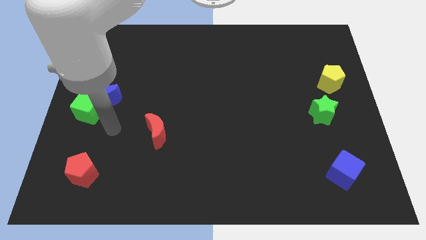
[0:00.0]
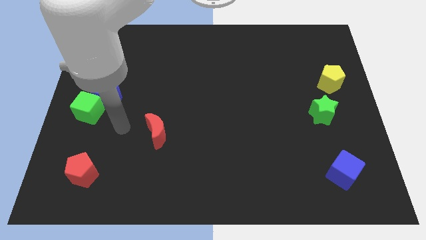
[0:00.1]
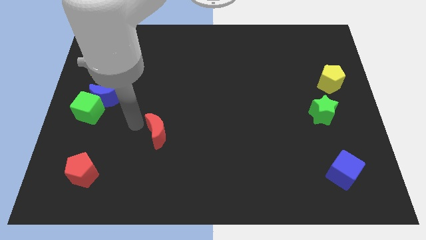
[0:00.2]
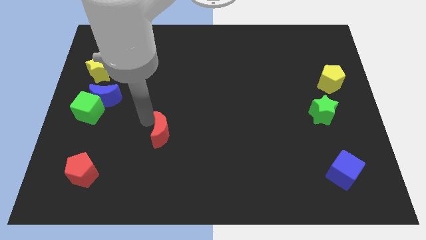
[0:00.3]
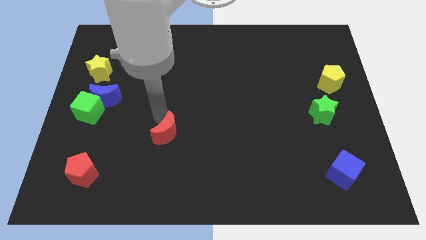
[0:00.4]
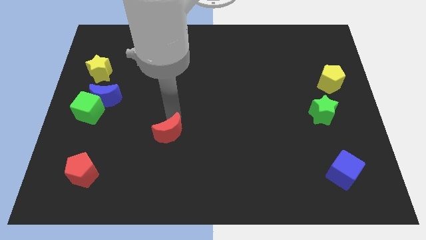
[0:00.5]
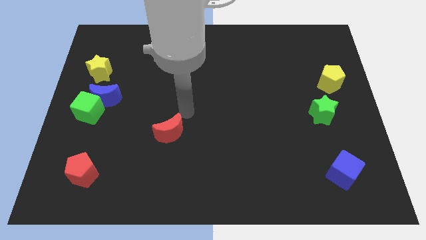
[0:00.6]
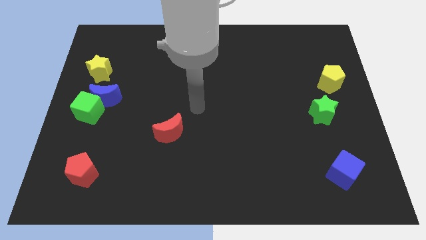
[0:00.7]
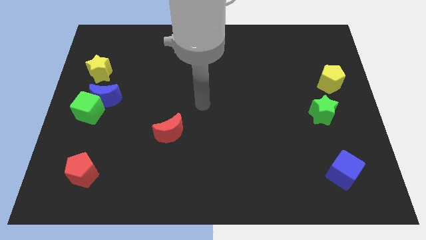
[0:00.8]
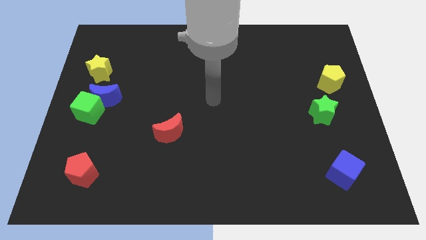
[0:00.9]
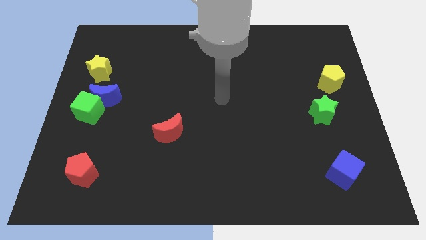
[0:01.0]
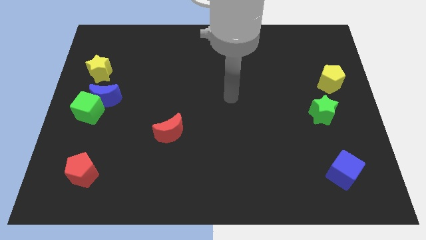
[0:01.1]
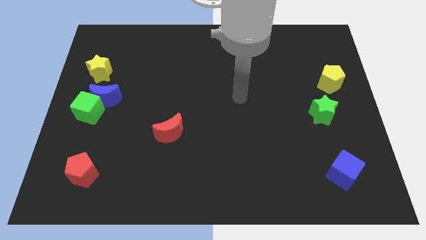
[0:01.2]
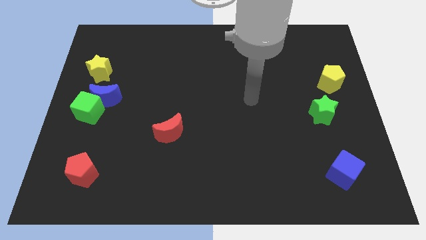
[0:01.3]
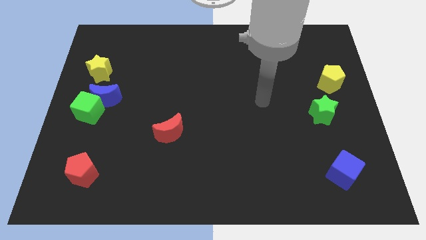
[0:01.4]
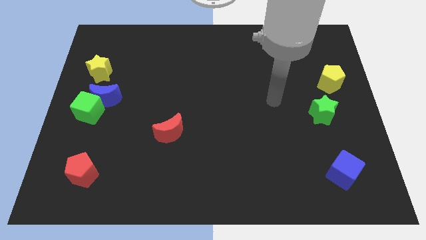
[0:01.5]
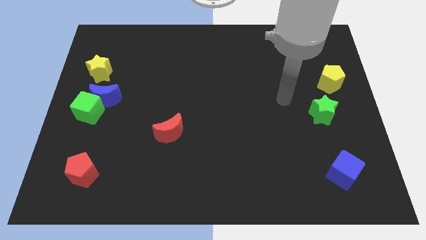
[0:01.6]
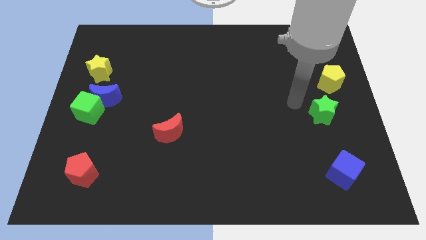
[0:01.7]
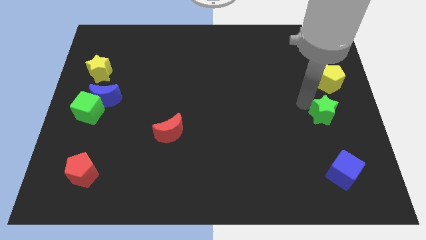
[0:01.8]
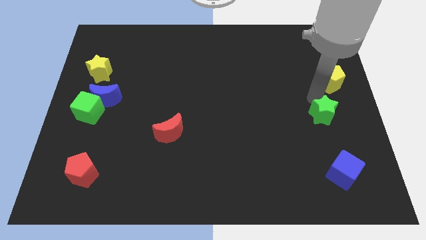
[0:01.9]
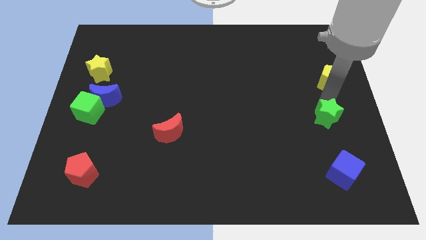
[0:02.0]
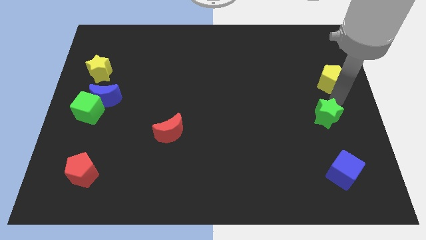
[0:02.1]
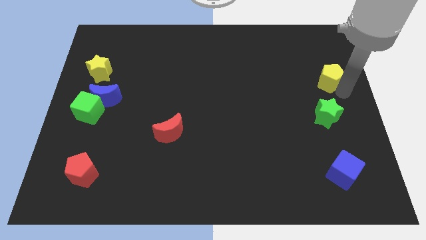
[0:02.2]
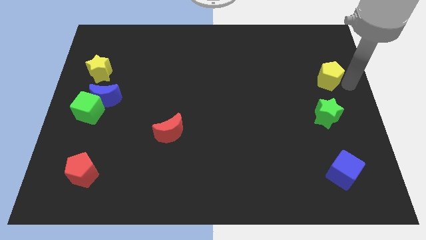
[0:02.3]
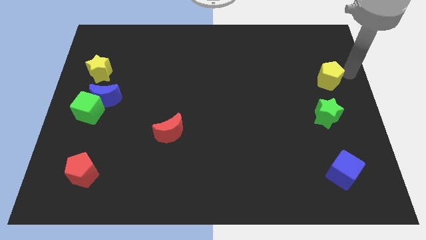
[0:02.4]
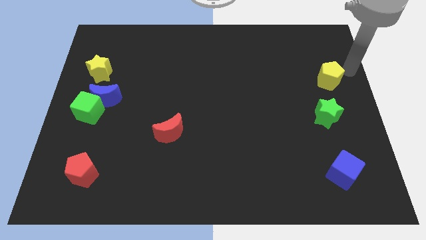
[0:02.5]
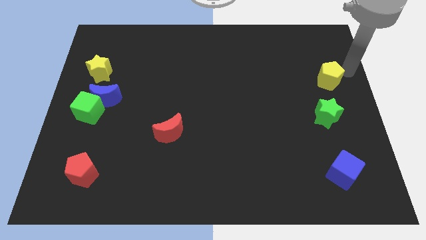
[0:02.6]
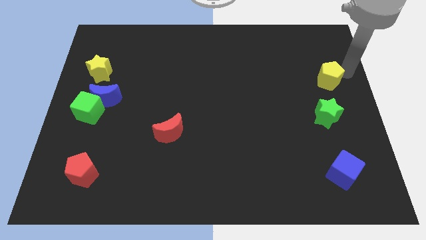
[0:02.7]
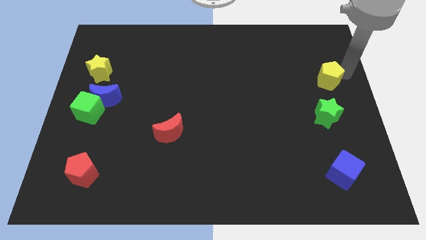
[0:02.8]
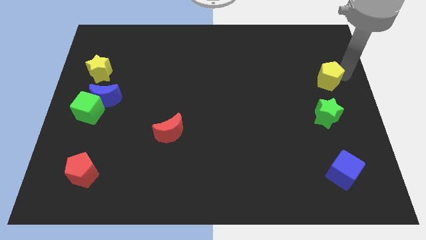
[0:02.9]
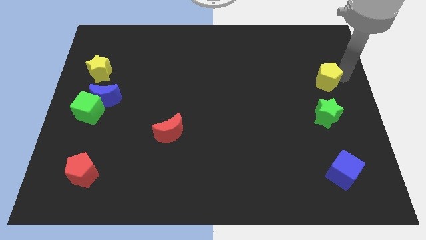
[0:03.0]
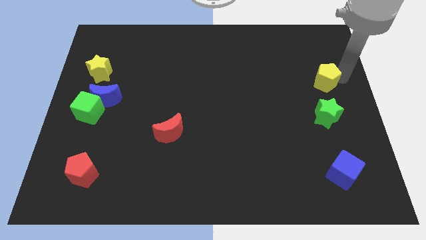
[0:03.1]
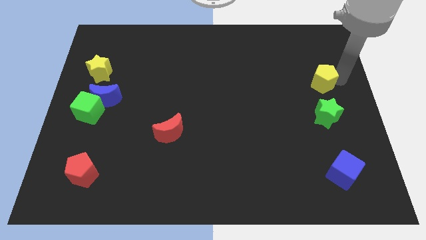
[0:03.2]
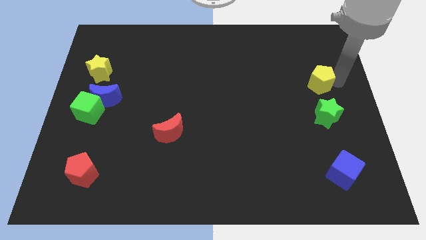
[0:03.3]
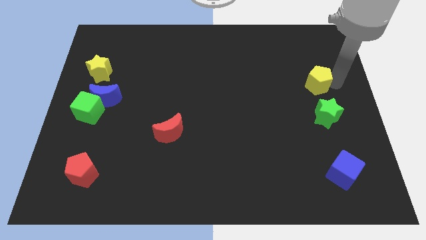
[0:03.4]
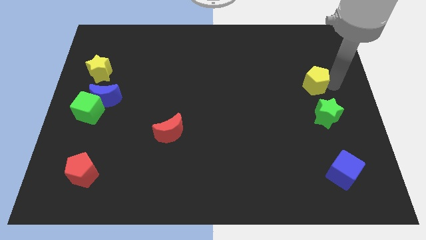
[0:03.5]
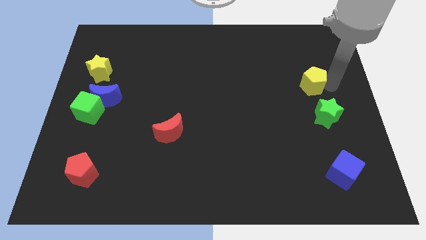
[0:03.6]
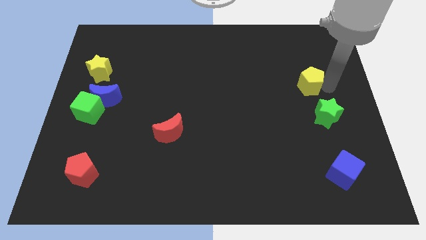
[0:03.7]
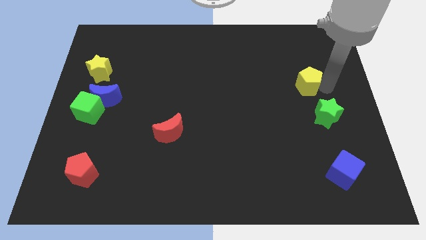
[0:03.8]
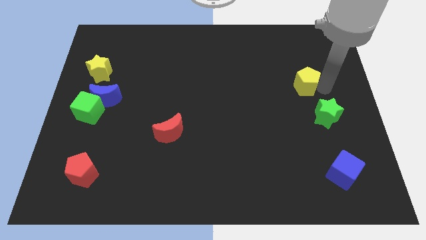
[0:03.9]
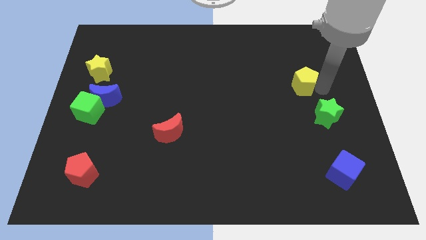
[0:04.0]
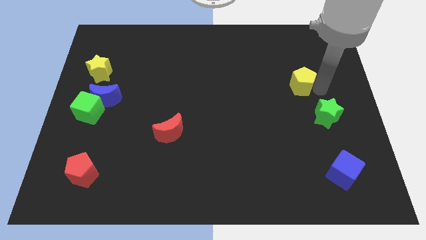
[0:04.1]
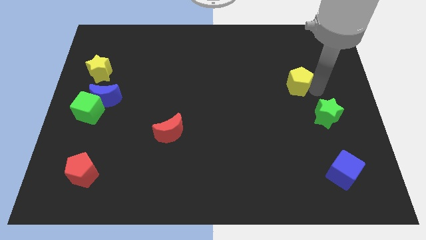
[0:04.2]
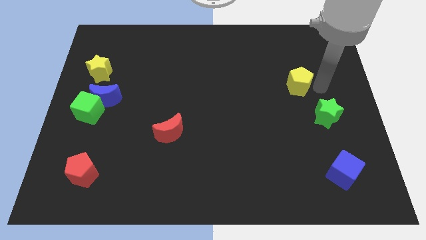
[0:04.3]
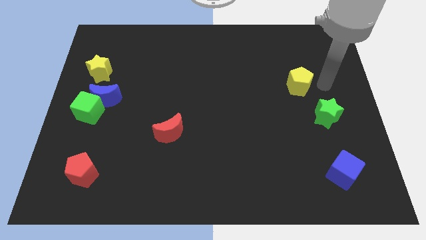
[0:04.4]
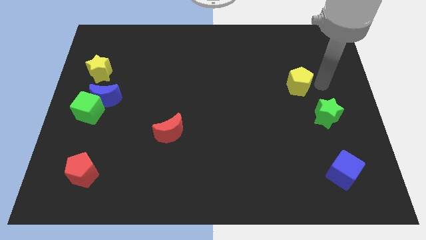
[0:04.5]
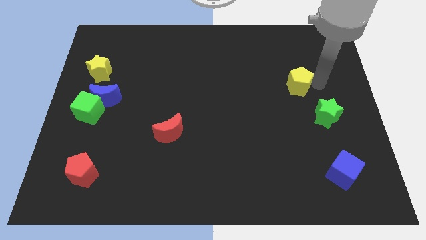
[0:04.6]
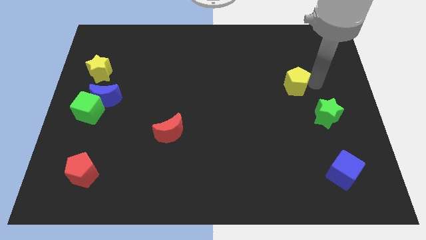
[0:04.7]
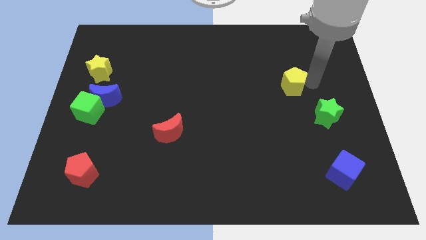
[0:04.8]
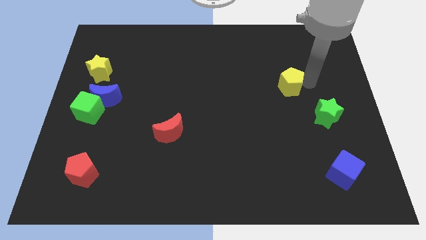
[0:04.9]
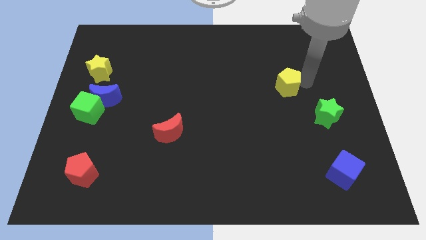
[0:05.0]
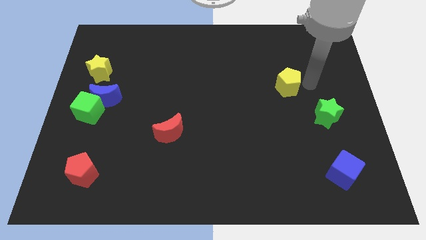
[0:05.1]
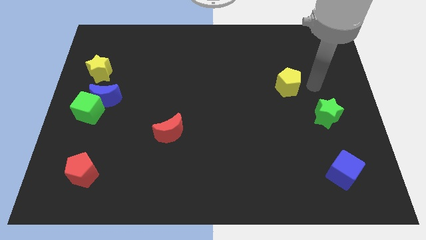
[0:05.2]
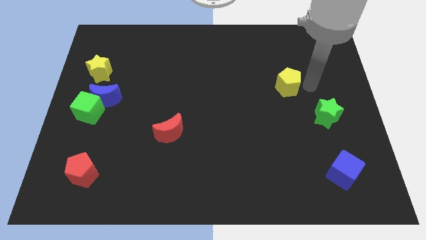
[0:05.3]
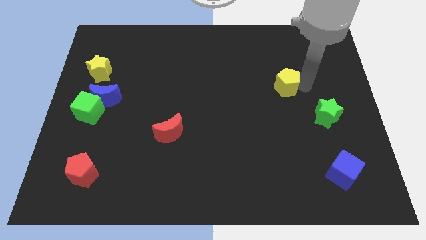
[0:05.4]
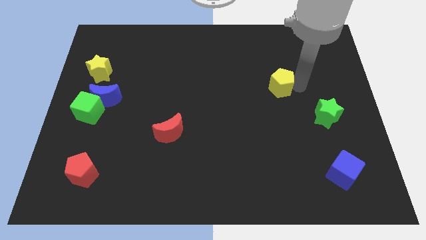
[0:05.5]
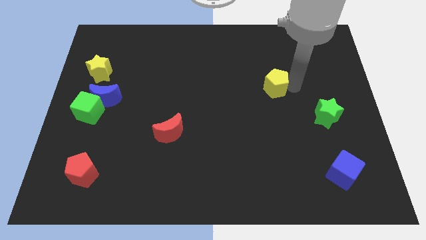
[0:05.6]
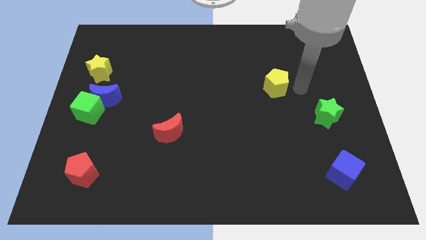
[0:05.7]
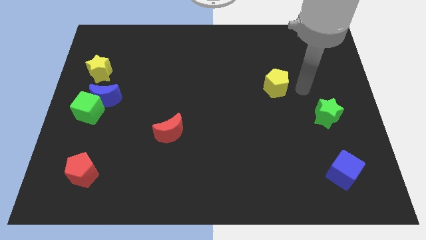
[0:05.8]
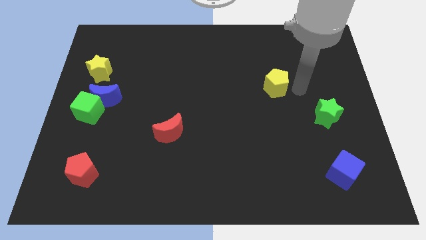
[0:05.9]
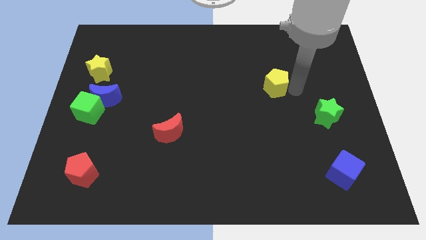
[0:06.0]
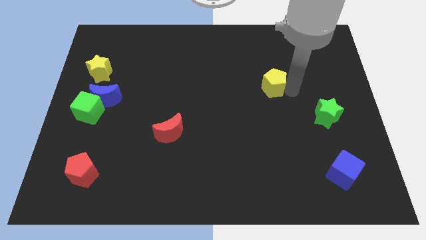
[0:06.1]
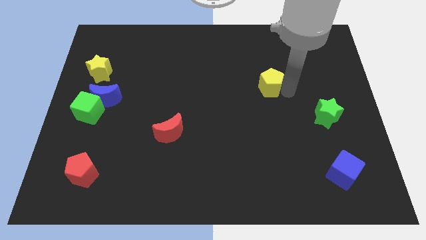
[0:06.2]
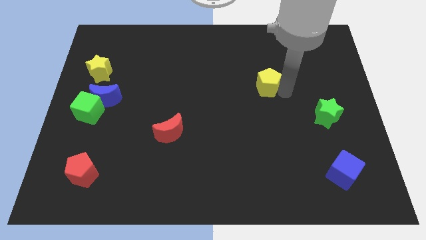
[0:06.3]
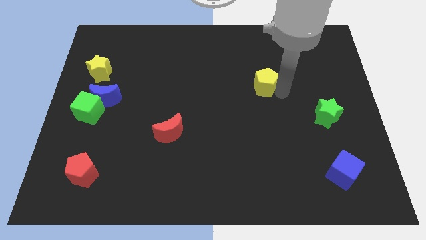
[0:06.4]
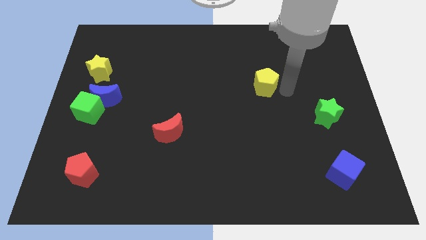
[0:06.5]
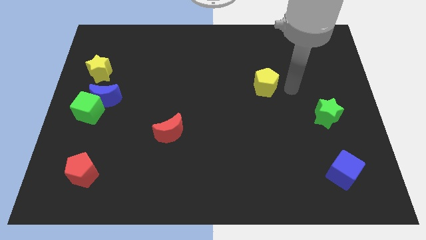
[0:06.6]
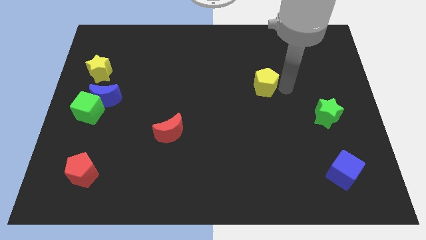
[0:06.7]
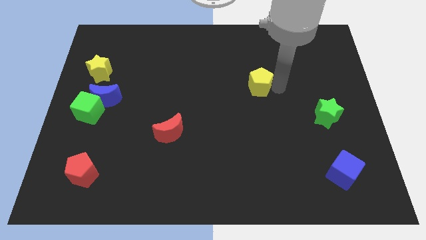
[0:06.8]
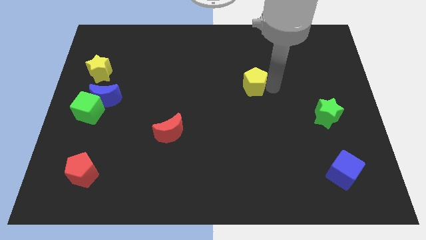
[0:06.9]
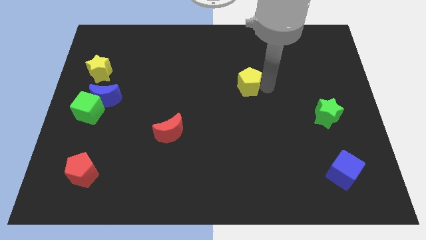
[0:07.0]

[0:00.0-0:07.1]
slide the yellow pentagon to the left

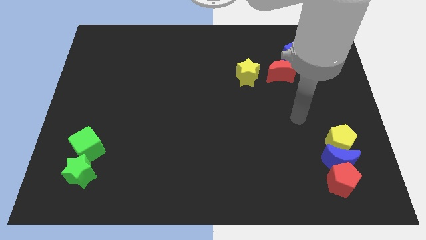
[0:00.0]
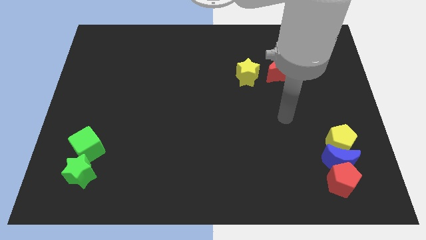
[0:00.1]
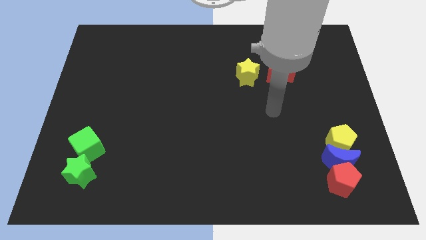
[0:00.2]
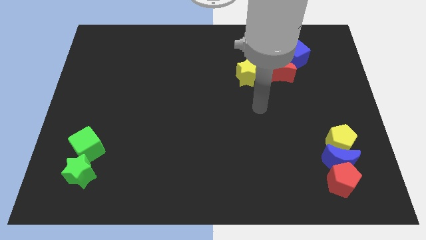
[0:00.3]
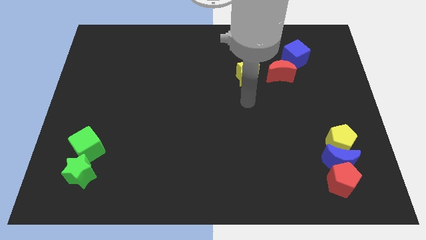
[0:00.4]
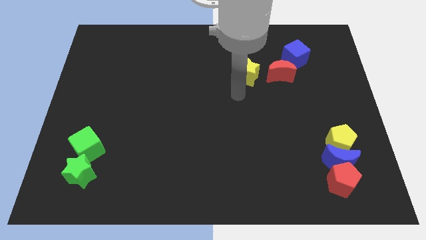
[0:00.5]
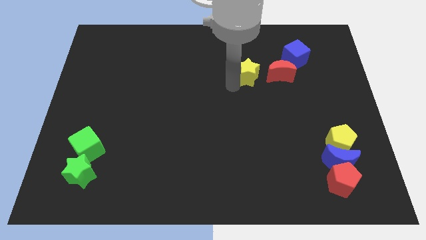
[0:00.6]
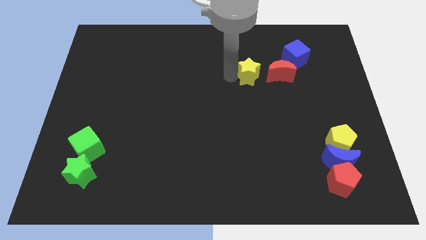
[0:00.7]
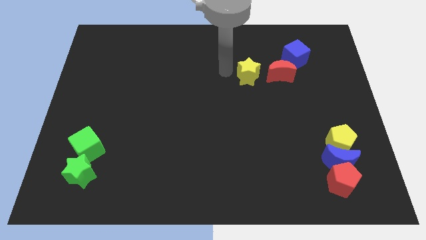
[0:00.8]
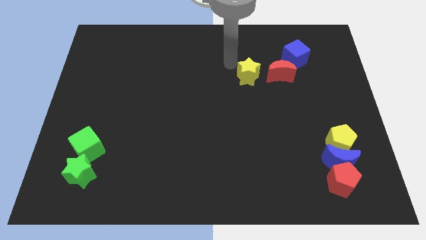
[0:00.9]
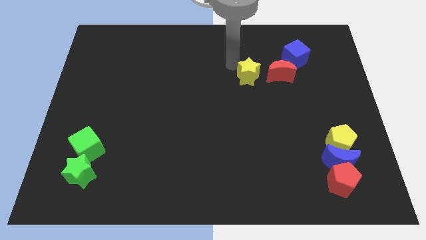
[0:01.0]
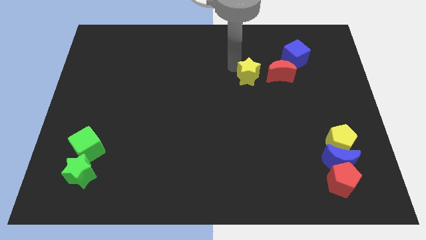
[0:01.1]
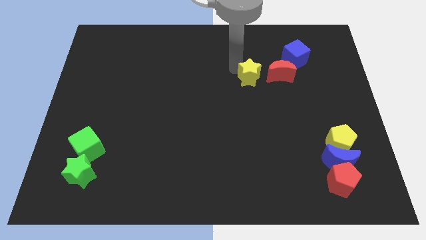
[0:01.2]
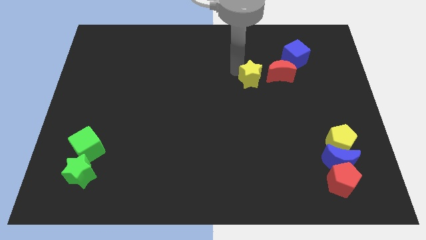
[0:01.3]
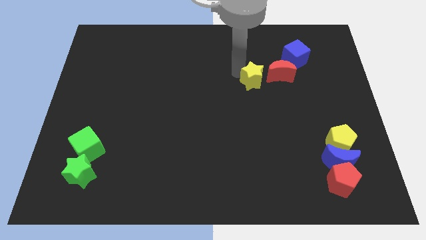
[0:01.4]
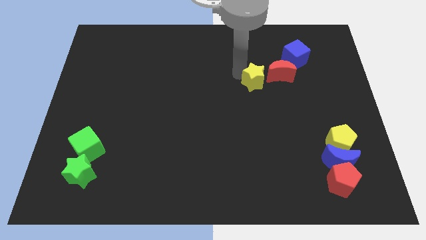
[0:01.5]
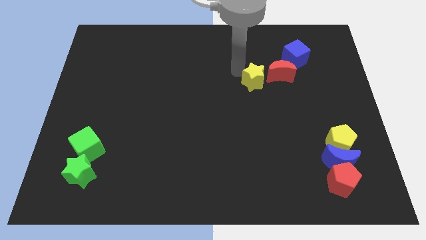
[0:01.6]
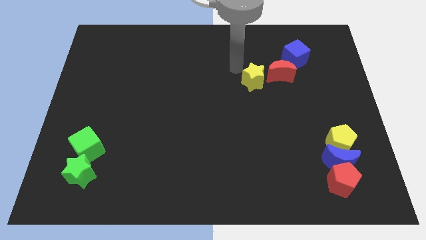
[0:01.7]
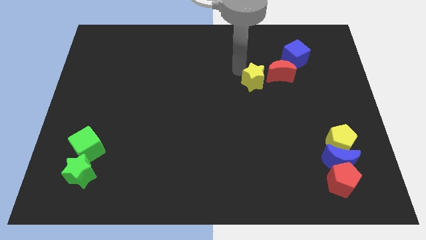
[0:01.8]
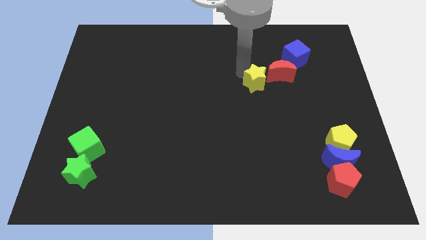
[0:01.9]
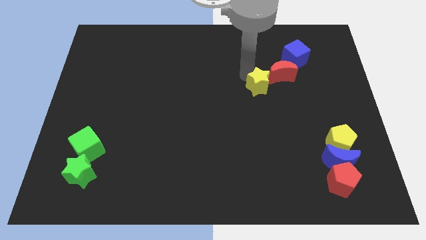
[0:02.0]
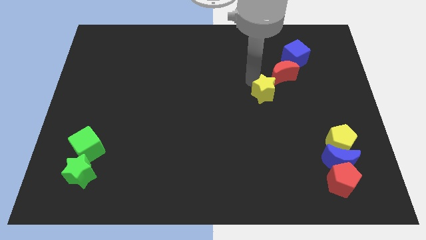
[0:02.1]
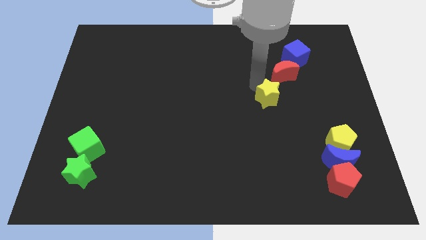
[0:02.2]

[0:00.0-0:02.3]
slide the yellow star downwards and right a bit
